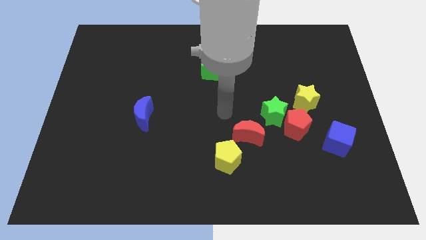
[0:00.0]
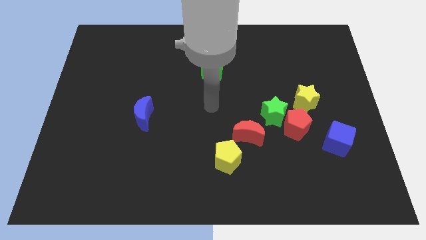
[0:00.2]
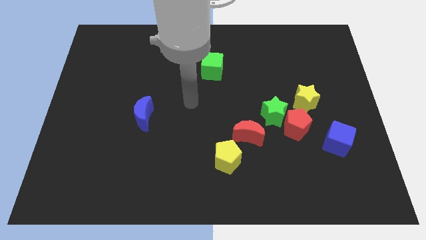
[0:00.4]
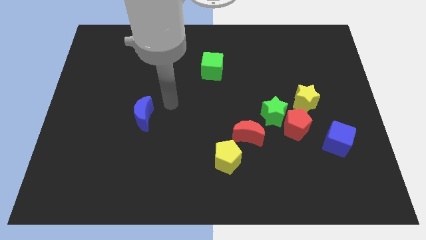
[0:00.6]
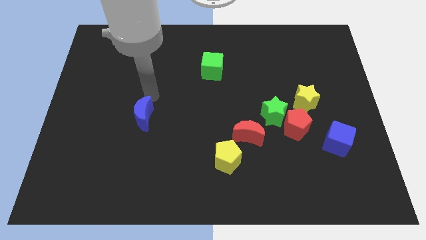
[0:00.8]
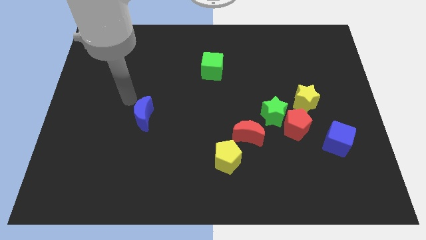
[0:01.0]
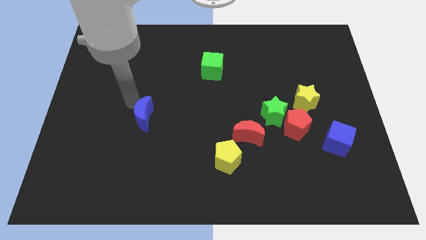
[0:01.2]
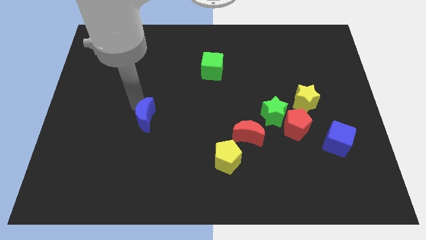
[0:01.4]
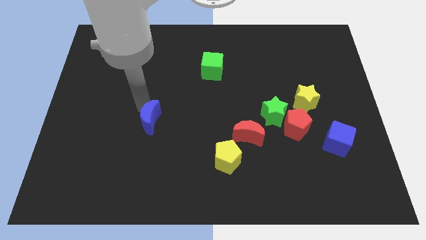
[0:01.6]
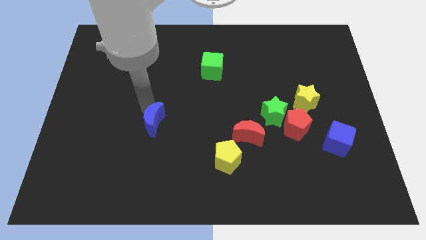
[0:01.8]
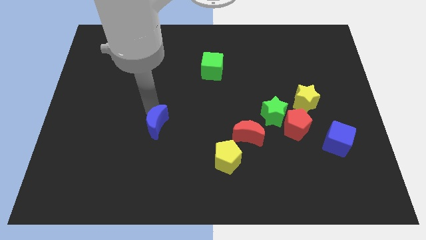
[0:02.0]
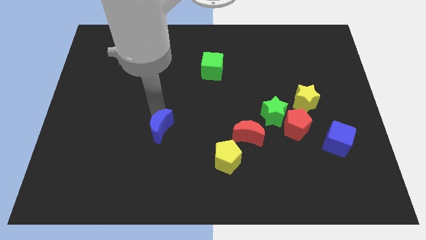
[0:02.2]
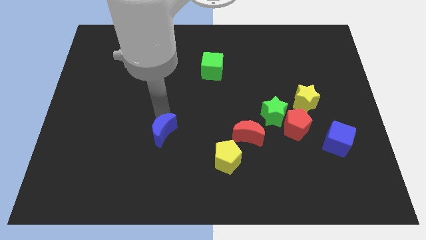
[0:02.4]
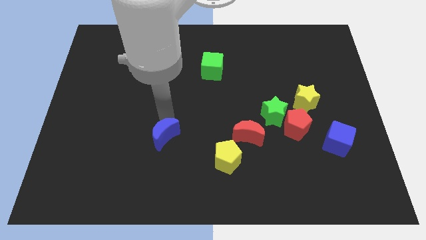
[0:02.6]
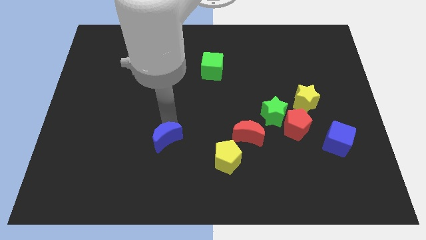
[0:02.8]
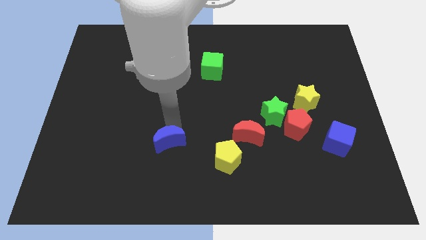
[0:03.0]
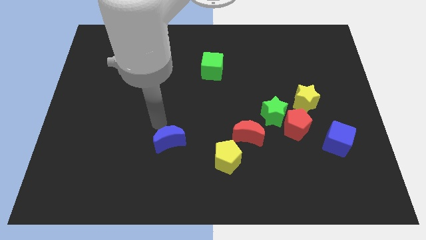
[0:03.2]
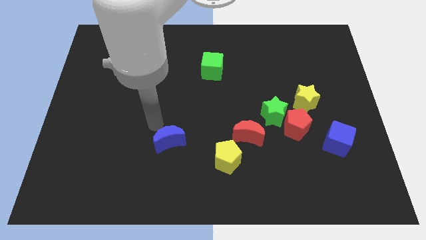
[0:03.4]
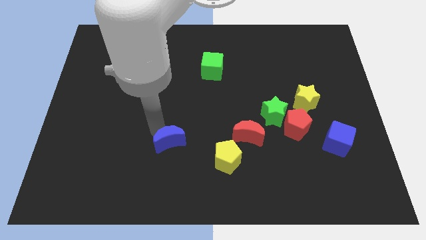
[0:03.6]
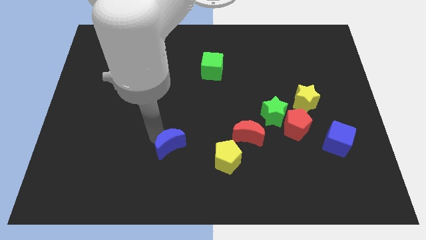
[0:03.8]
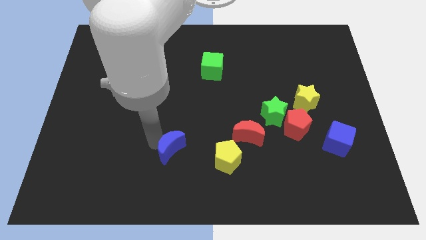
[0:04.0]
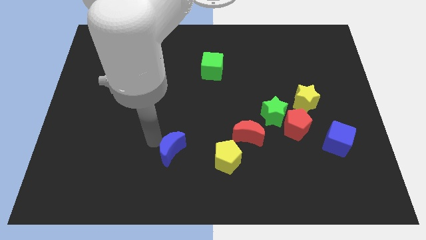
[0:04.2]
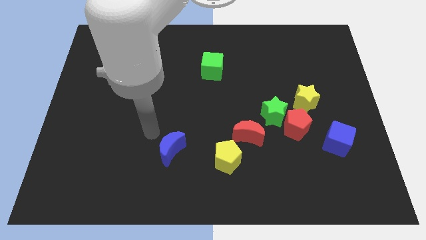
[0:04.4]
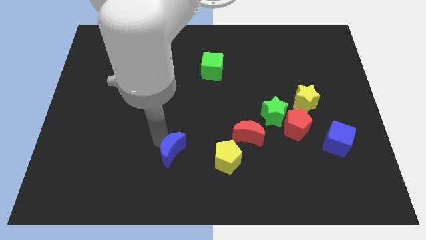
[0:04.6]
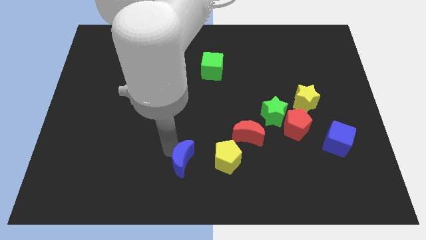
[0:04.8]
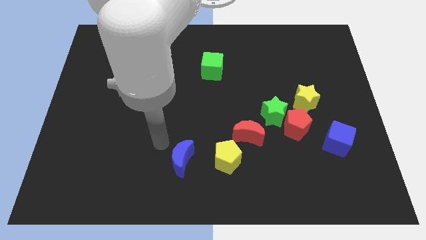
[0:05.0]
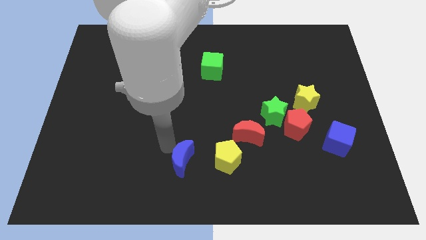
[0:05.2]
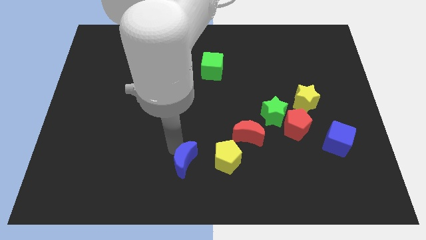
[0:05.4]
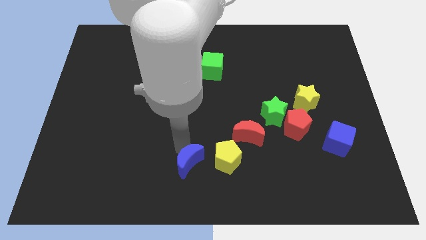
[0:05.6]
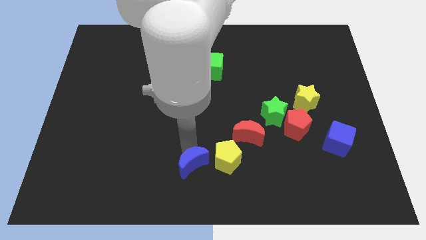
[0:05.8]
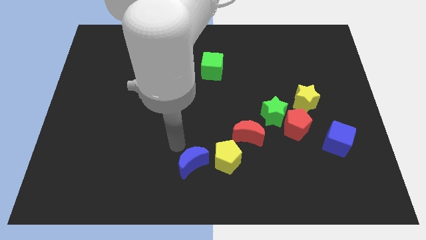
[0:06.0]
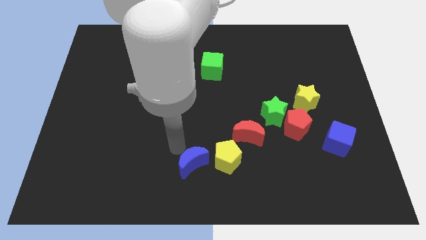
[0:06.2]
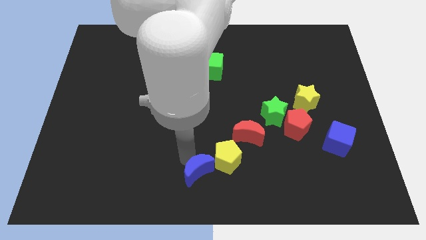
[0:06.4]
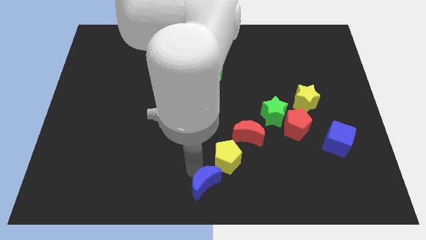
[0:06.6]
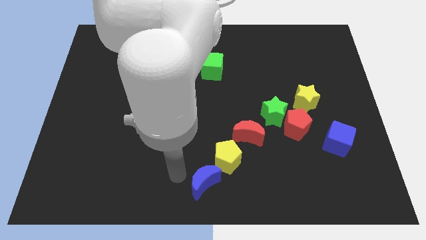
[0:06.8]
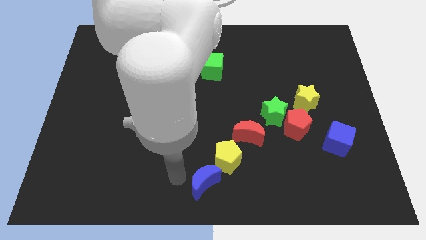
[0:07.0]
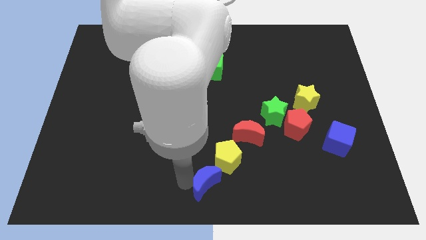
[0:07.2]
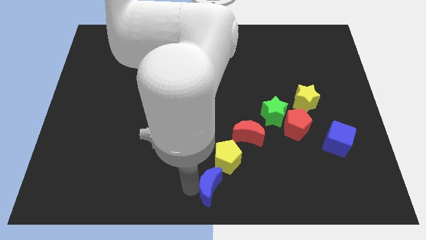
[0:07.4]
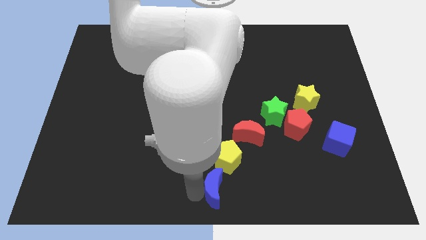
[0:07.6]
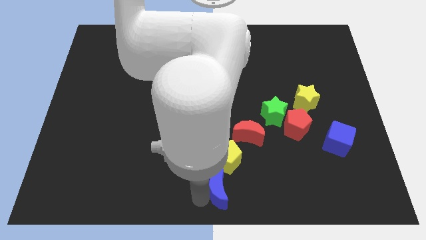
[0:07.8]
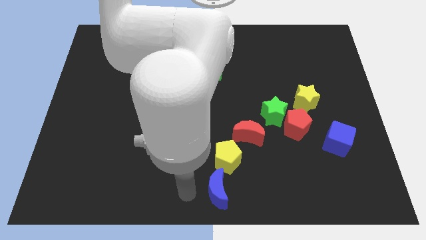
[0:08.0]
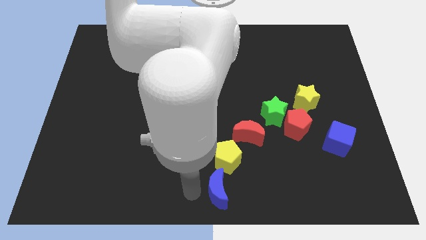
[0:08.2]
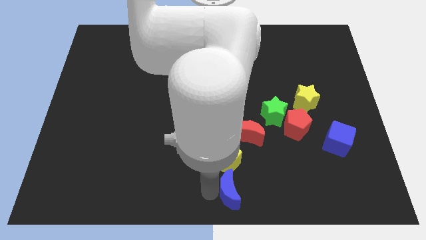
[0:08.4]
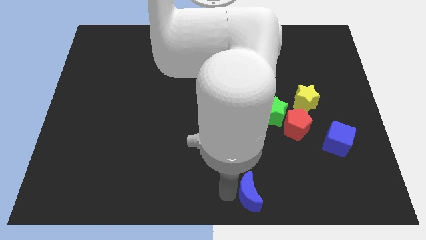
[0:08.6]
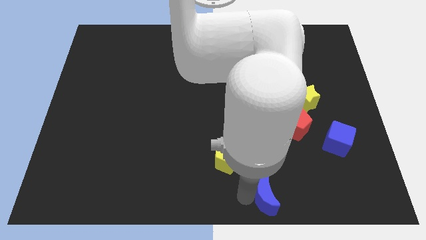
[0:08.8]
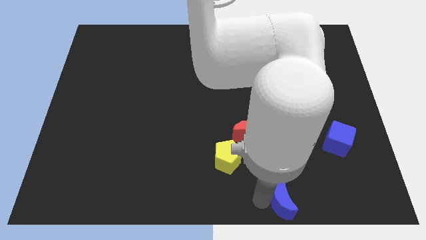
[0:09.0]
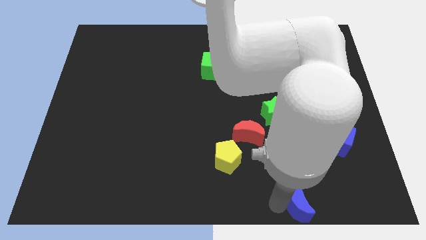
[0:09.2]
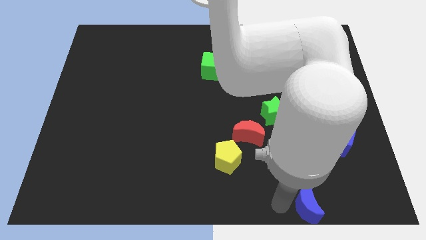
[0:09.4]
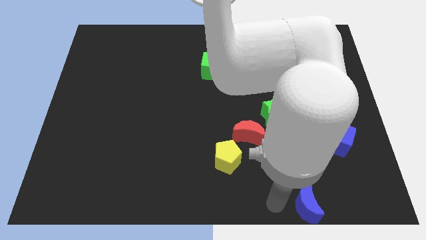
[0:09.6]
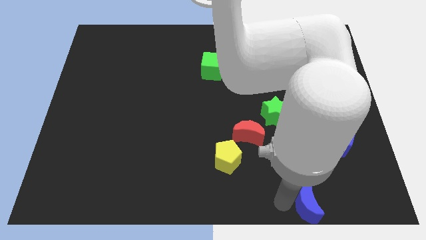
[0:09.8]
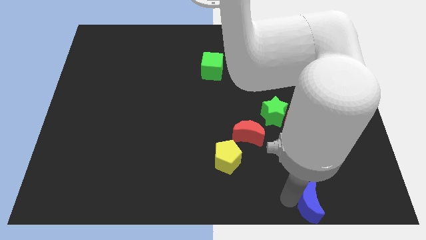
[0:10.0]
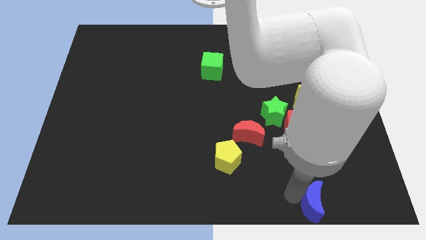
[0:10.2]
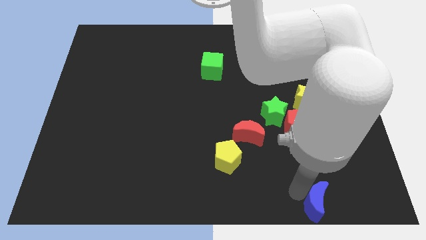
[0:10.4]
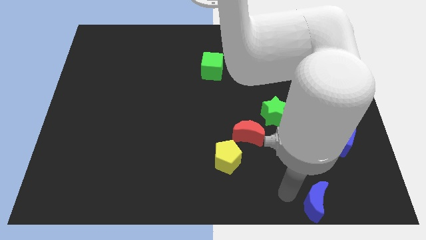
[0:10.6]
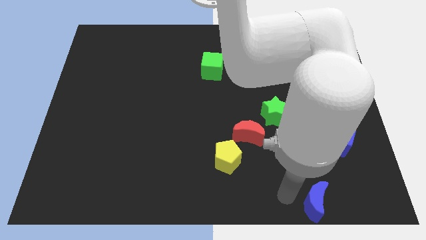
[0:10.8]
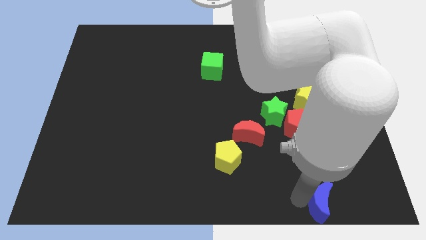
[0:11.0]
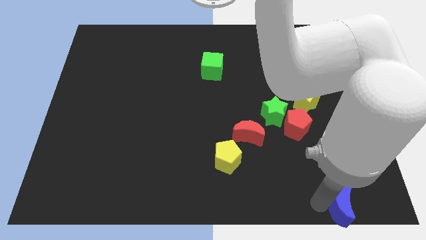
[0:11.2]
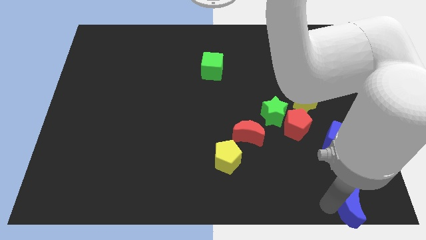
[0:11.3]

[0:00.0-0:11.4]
push the blue moon to the bottom right corner

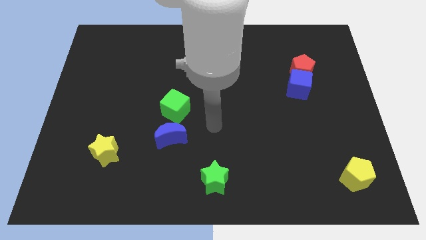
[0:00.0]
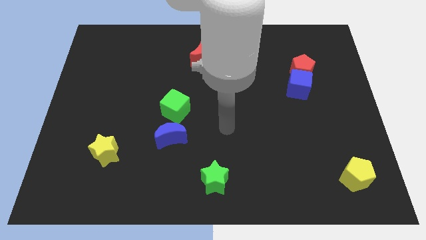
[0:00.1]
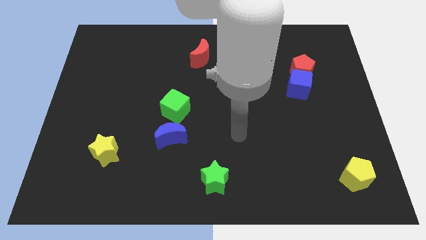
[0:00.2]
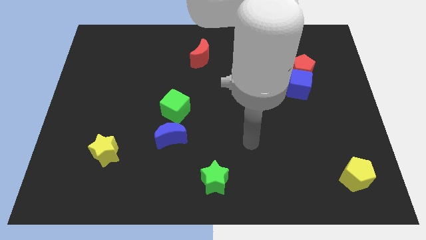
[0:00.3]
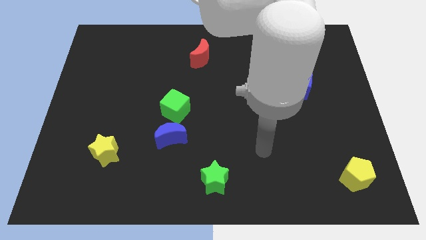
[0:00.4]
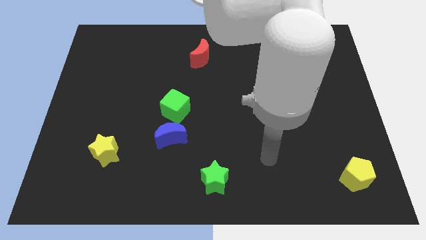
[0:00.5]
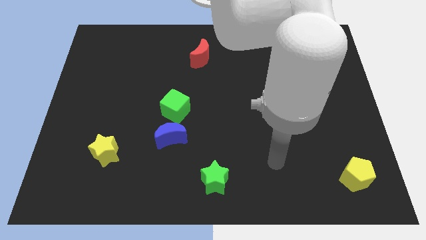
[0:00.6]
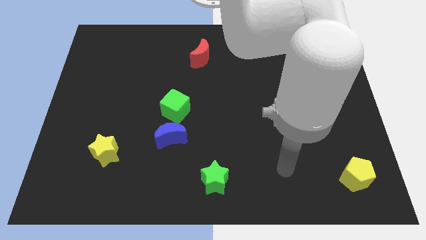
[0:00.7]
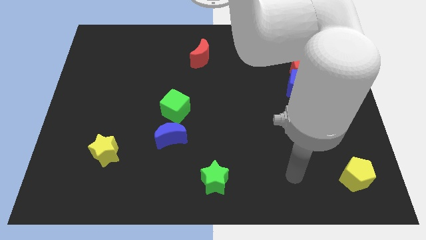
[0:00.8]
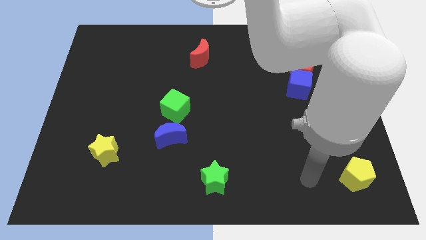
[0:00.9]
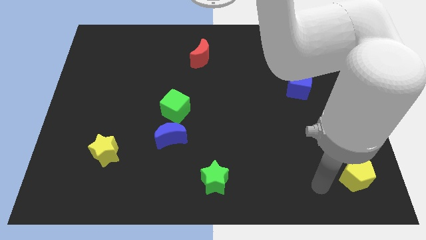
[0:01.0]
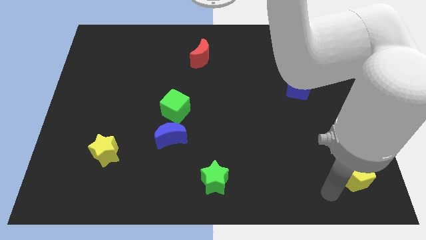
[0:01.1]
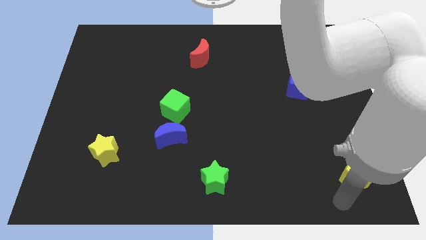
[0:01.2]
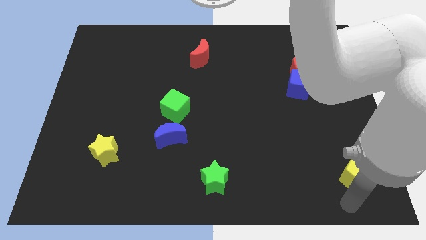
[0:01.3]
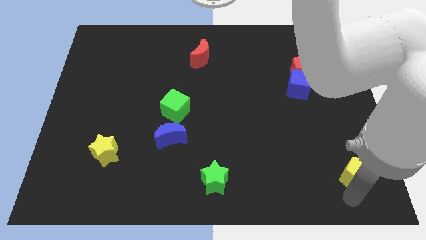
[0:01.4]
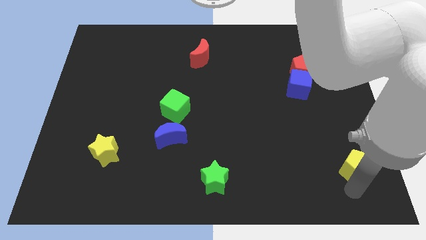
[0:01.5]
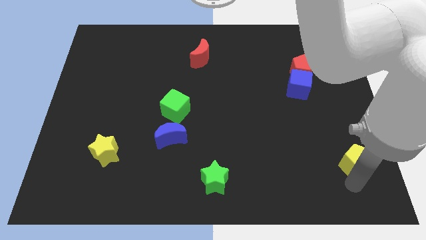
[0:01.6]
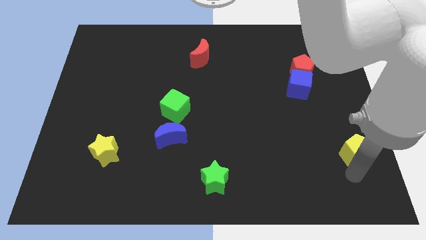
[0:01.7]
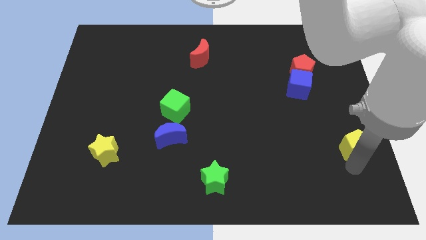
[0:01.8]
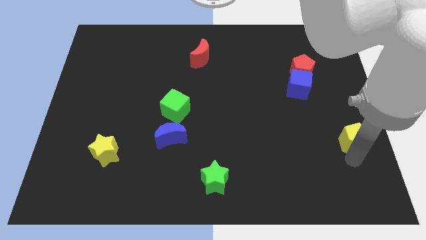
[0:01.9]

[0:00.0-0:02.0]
put the yellow pentagon to the center right
